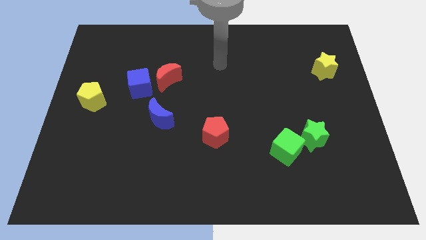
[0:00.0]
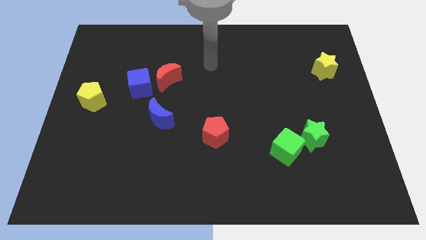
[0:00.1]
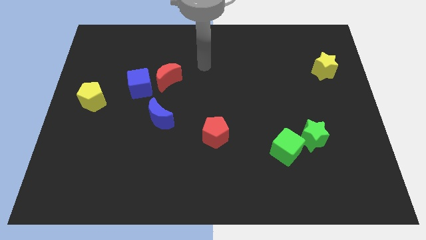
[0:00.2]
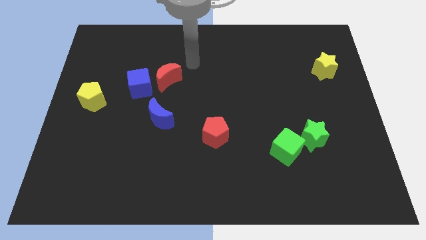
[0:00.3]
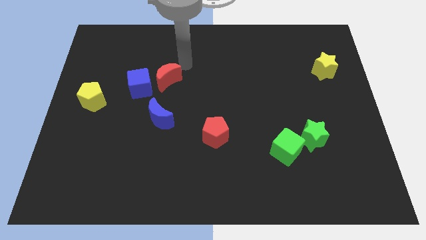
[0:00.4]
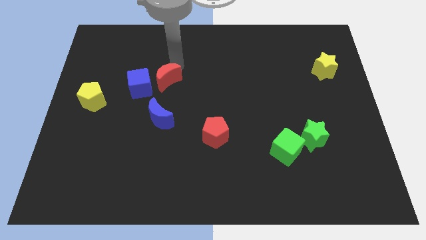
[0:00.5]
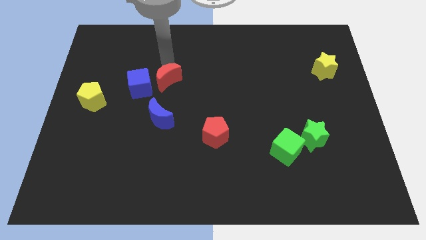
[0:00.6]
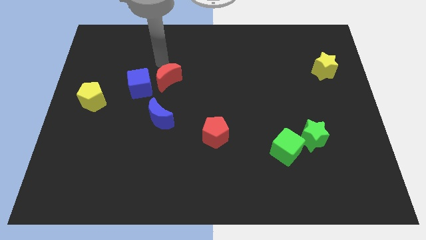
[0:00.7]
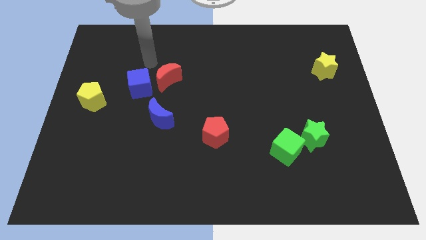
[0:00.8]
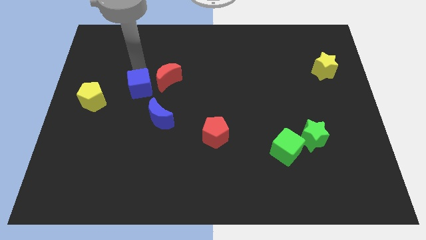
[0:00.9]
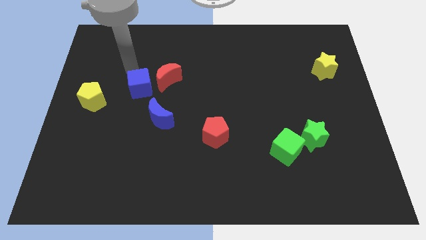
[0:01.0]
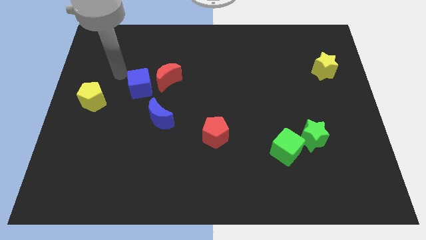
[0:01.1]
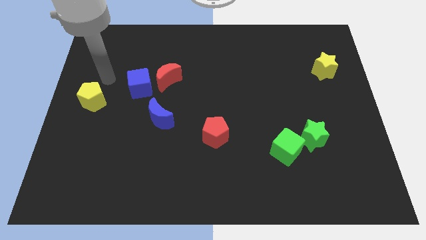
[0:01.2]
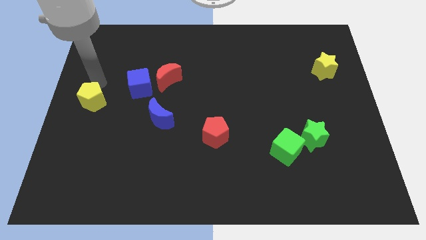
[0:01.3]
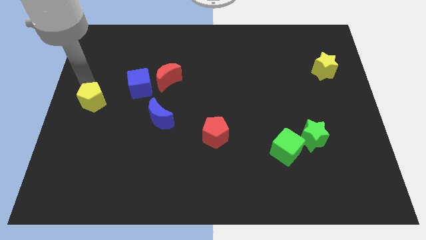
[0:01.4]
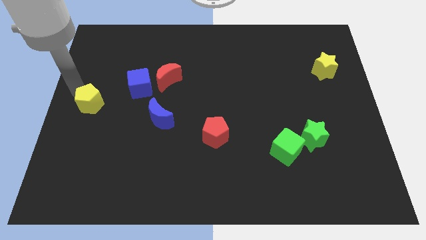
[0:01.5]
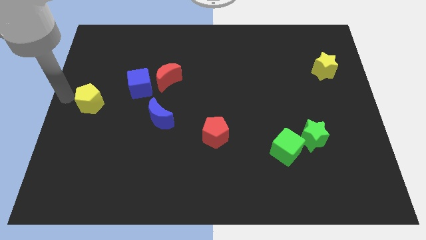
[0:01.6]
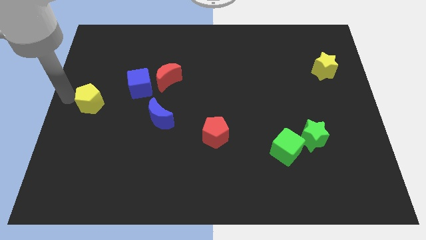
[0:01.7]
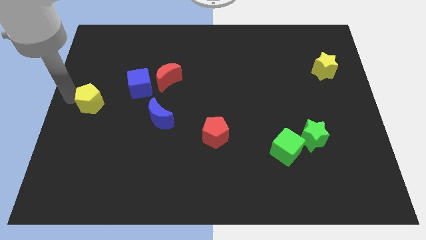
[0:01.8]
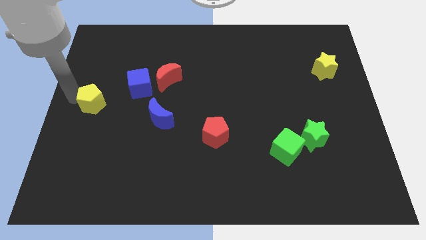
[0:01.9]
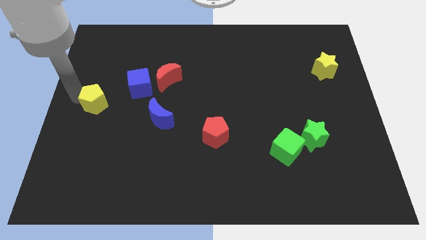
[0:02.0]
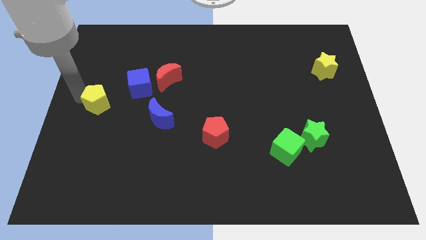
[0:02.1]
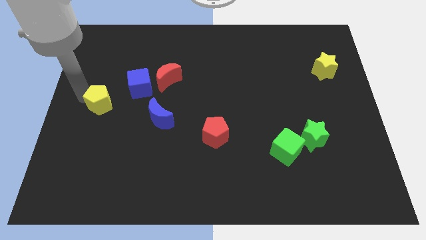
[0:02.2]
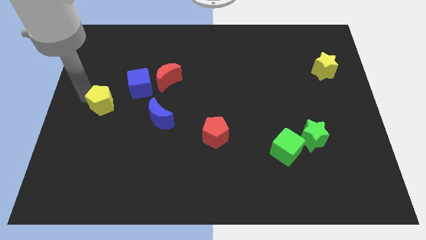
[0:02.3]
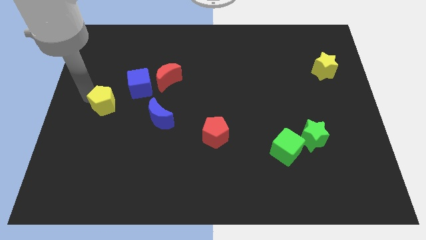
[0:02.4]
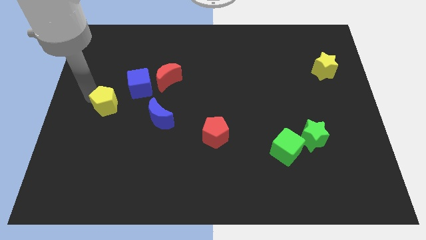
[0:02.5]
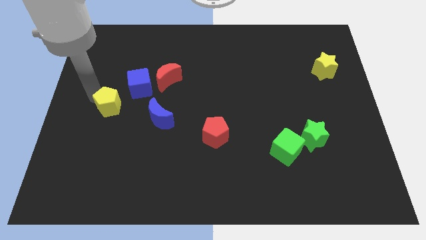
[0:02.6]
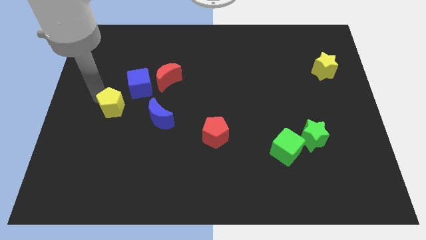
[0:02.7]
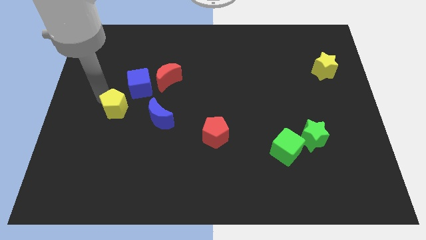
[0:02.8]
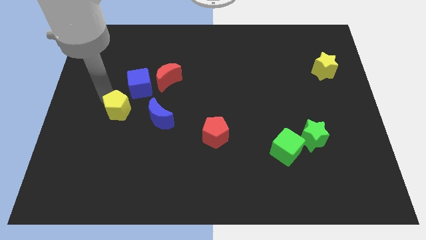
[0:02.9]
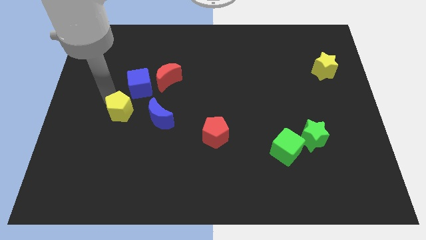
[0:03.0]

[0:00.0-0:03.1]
slide the yellow pentagon a bit down and then right

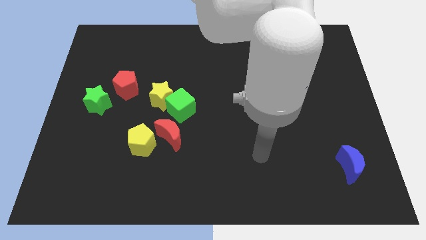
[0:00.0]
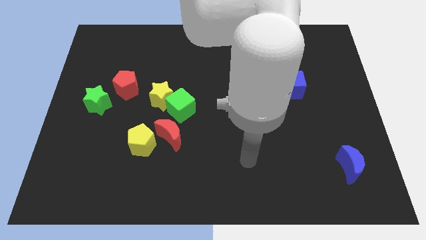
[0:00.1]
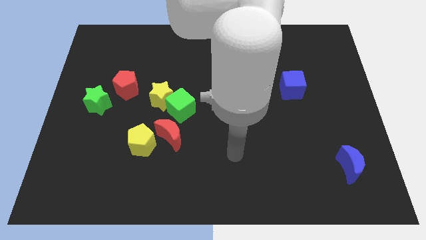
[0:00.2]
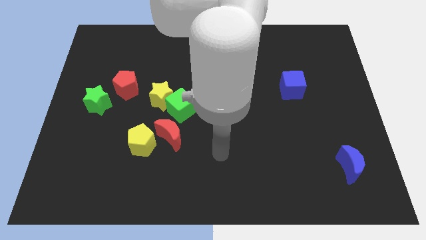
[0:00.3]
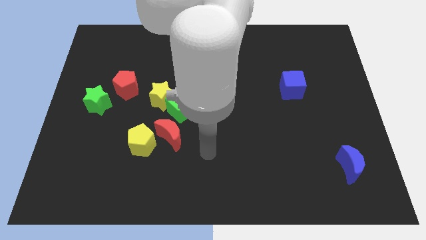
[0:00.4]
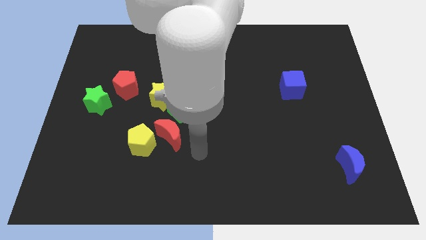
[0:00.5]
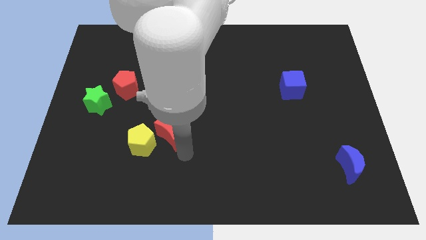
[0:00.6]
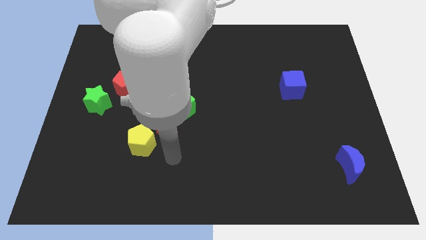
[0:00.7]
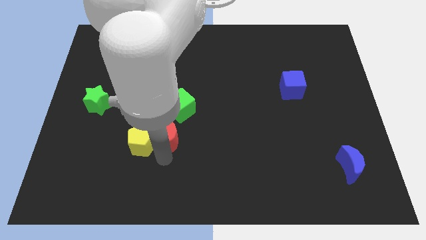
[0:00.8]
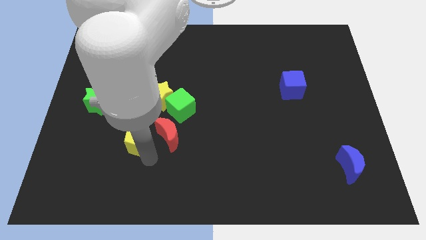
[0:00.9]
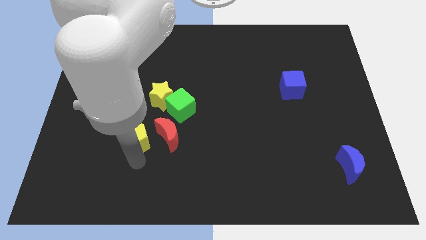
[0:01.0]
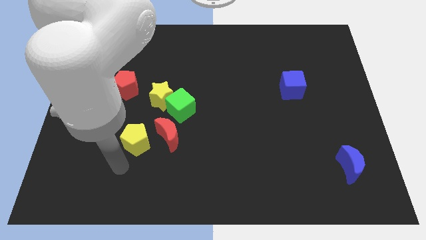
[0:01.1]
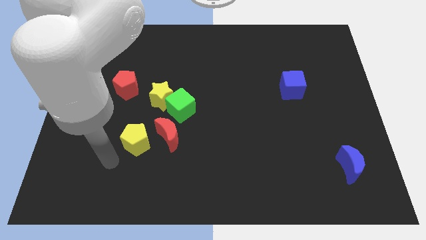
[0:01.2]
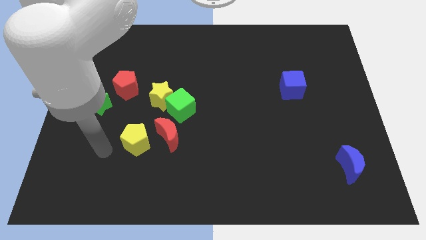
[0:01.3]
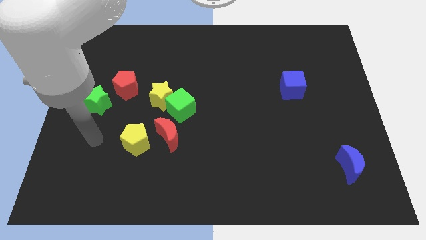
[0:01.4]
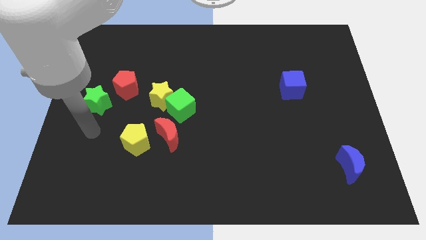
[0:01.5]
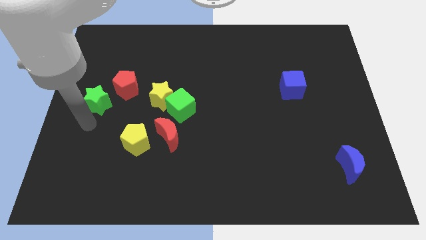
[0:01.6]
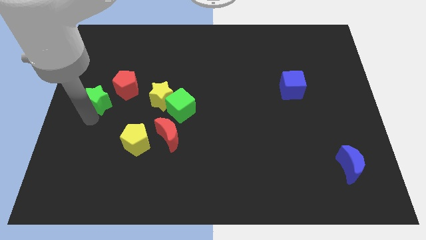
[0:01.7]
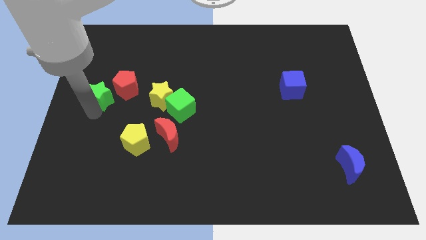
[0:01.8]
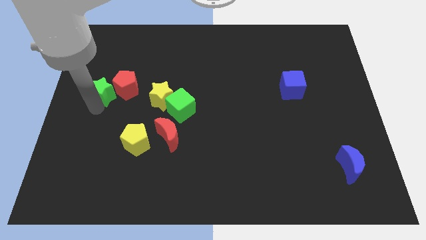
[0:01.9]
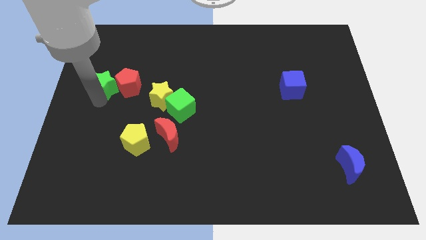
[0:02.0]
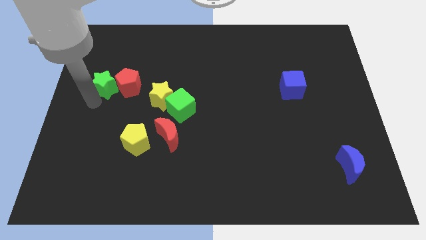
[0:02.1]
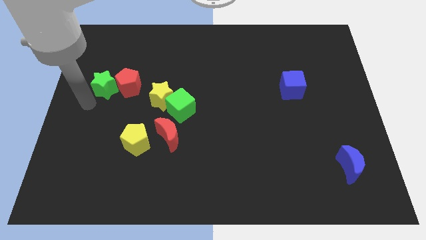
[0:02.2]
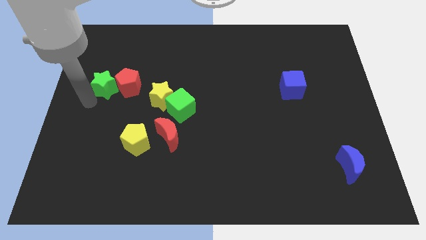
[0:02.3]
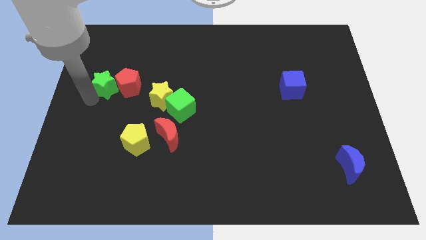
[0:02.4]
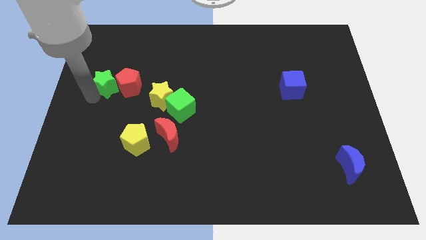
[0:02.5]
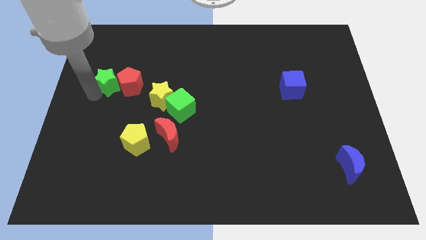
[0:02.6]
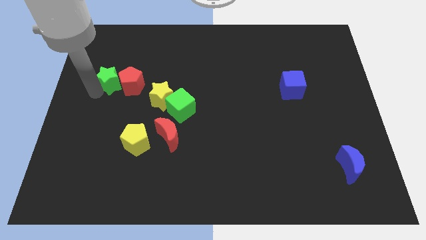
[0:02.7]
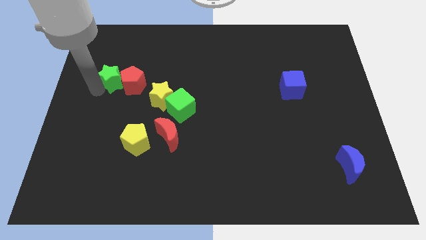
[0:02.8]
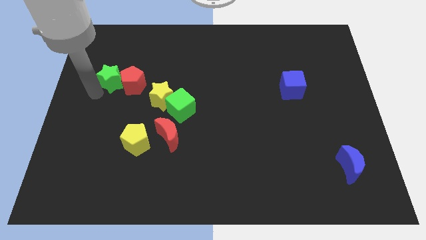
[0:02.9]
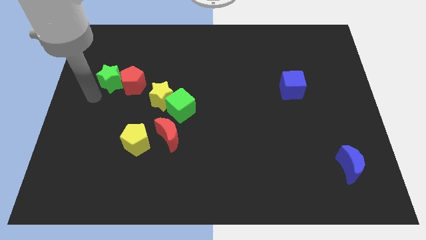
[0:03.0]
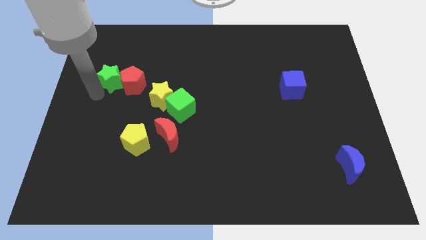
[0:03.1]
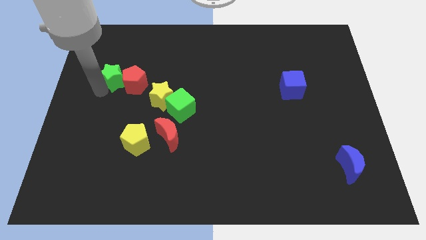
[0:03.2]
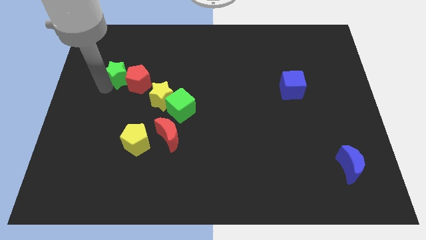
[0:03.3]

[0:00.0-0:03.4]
push the green star a little up and to the right diagonally

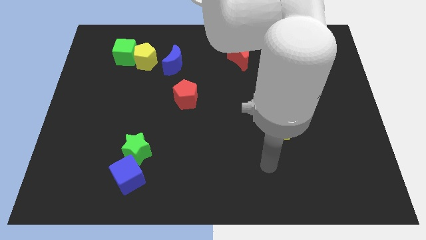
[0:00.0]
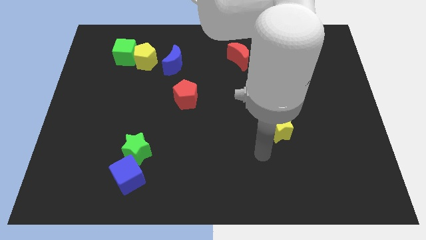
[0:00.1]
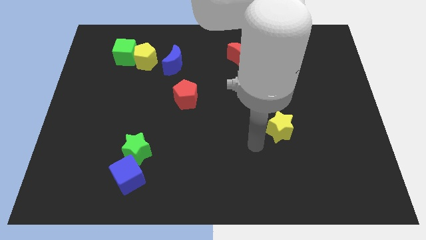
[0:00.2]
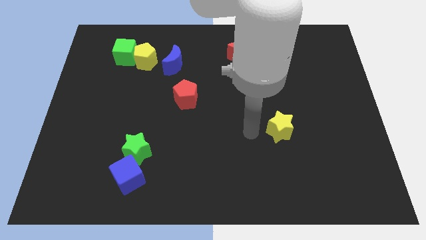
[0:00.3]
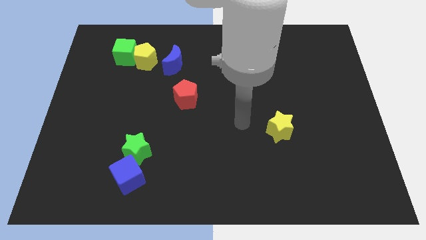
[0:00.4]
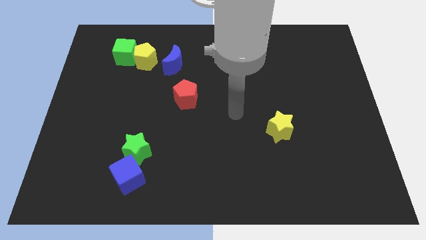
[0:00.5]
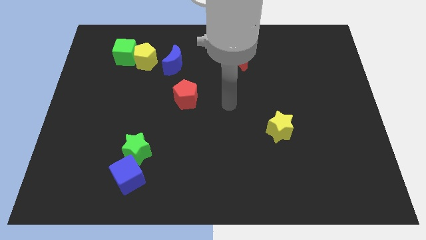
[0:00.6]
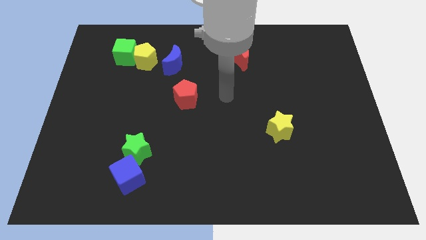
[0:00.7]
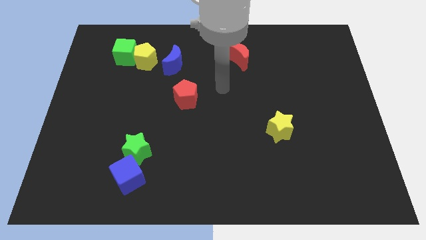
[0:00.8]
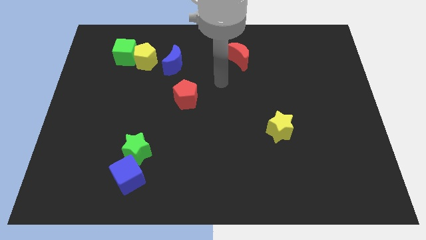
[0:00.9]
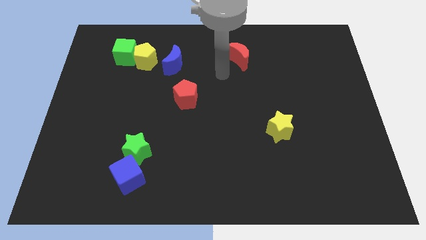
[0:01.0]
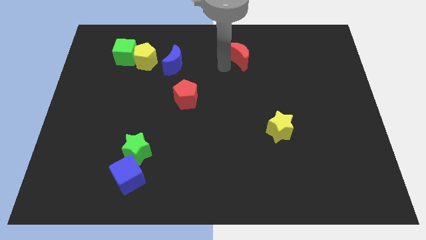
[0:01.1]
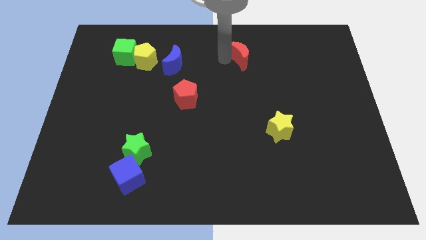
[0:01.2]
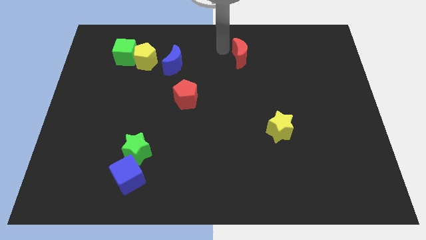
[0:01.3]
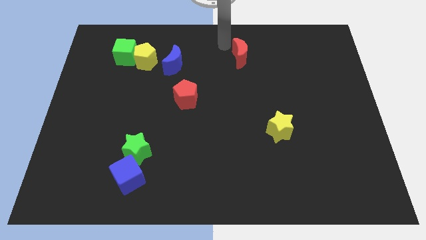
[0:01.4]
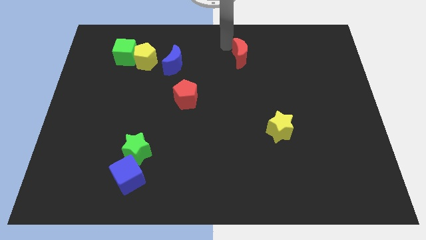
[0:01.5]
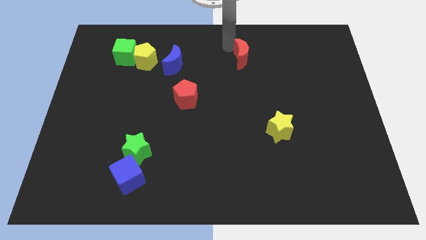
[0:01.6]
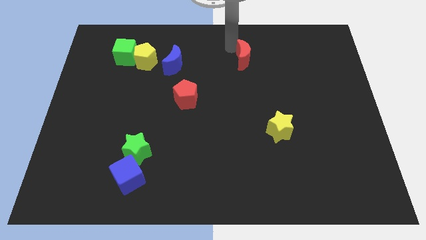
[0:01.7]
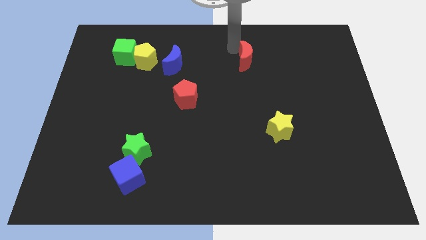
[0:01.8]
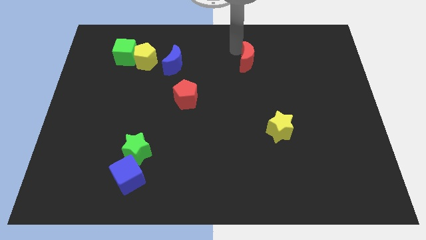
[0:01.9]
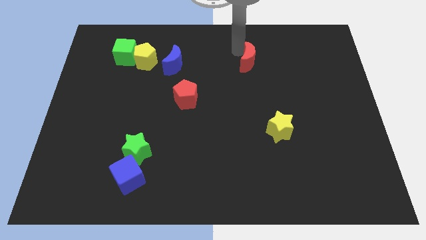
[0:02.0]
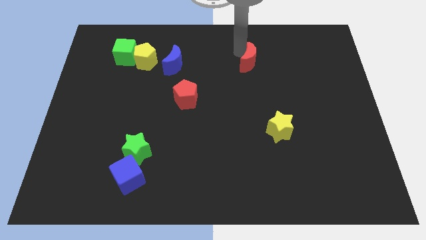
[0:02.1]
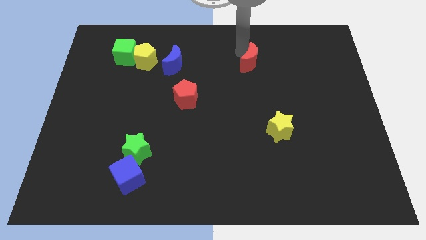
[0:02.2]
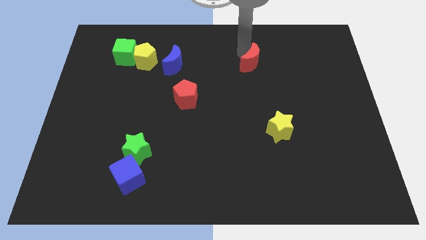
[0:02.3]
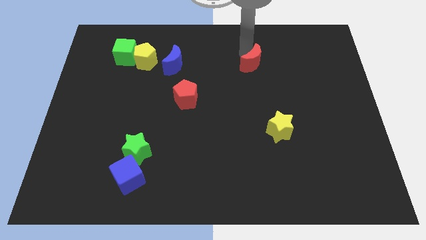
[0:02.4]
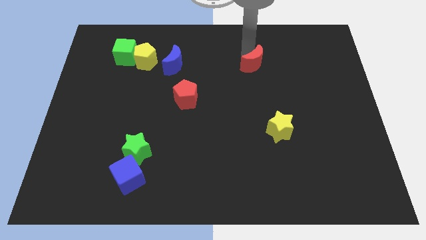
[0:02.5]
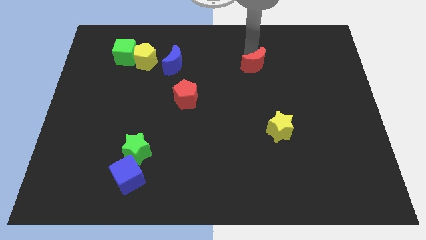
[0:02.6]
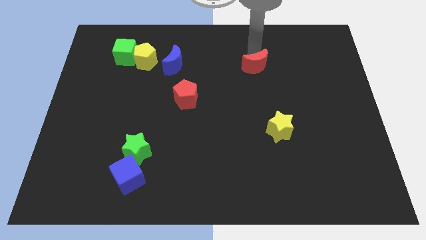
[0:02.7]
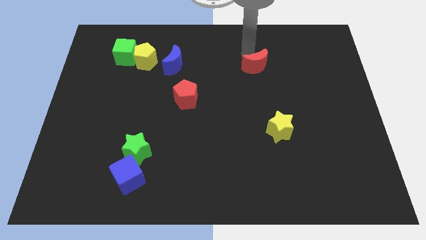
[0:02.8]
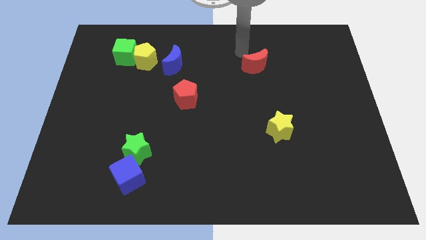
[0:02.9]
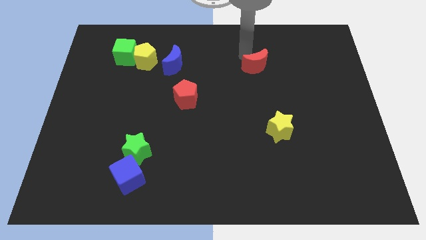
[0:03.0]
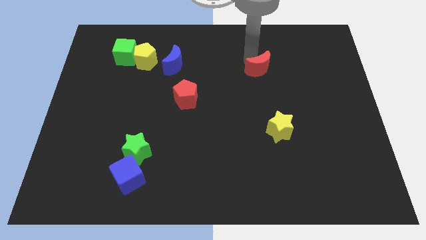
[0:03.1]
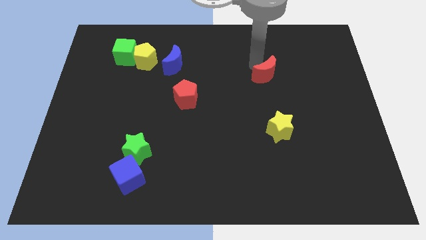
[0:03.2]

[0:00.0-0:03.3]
slide the red moon somewhat down and right diagonally
